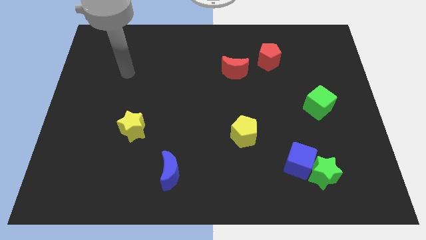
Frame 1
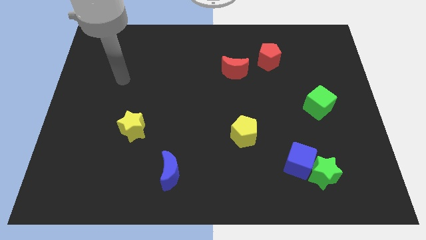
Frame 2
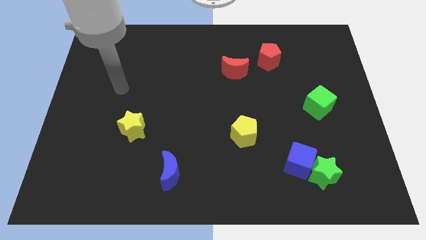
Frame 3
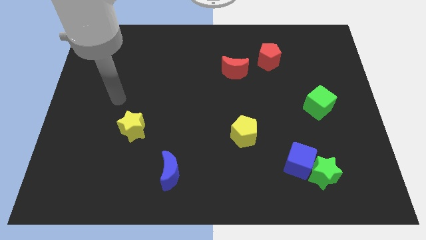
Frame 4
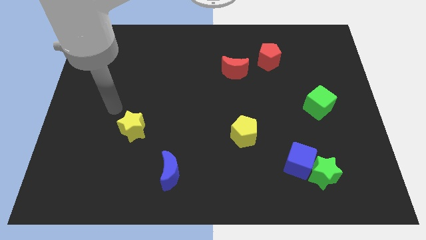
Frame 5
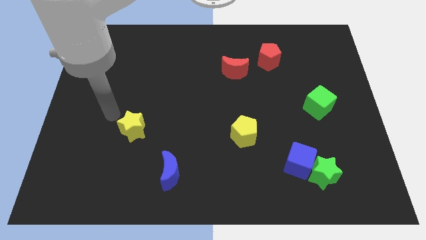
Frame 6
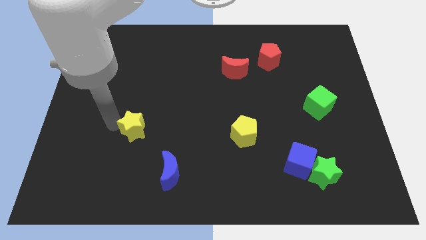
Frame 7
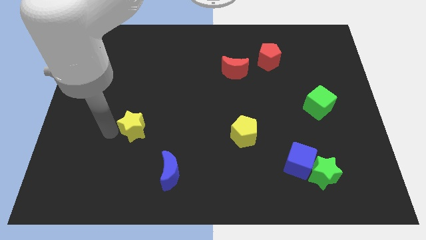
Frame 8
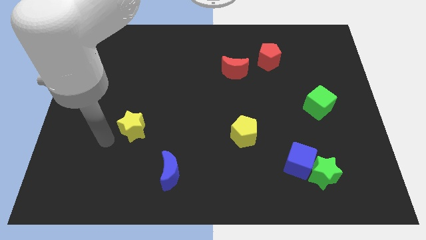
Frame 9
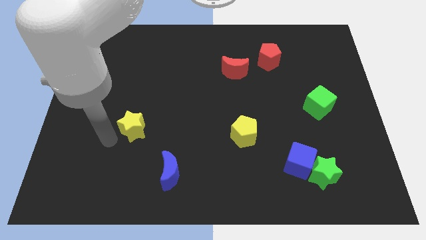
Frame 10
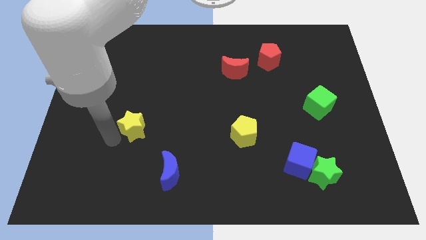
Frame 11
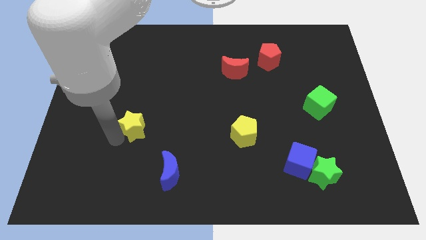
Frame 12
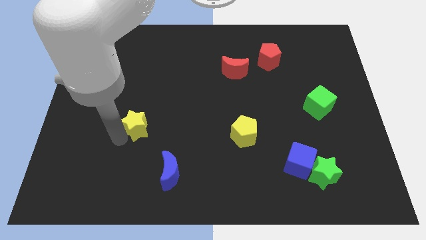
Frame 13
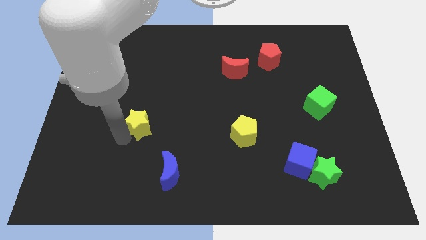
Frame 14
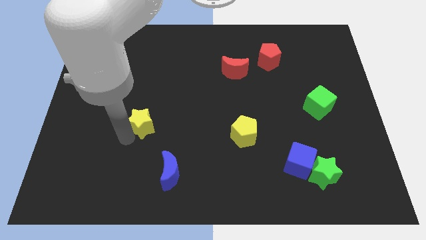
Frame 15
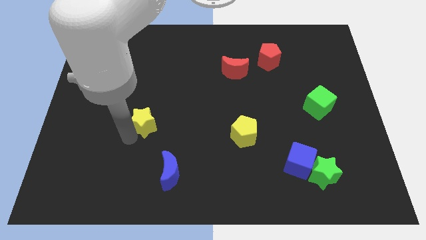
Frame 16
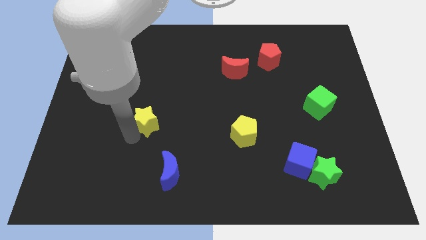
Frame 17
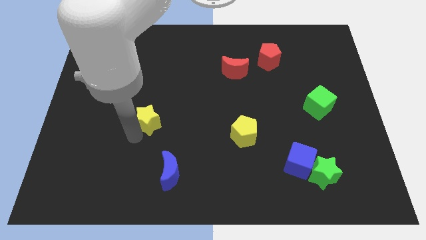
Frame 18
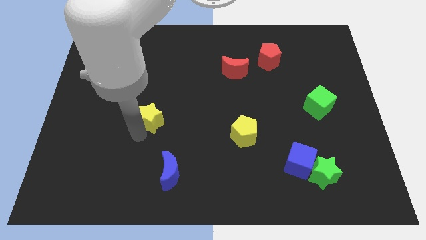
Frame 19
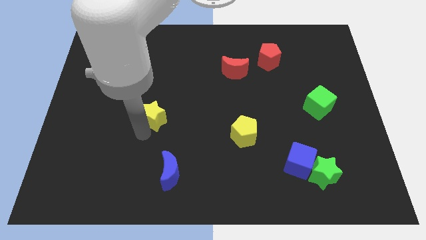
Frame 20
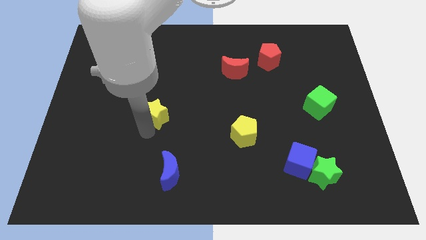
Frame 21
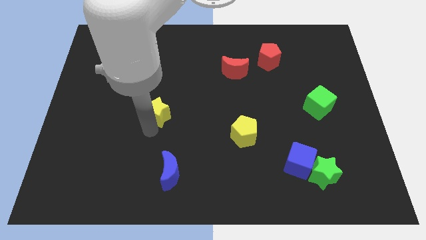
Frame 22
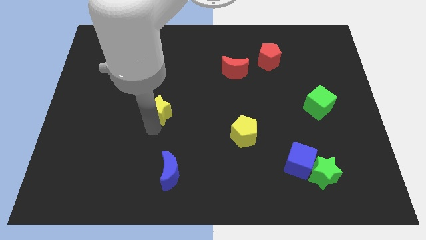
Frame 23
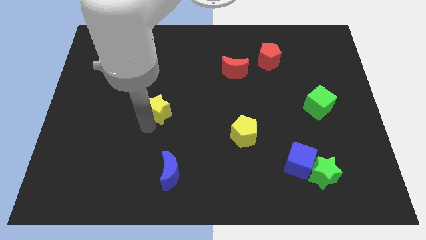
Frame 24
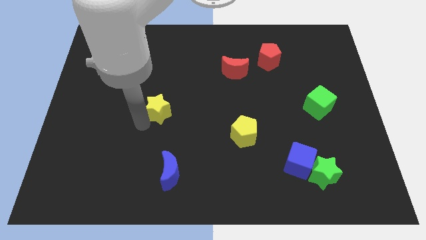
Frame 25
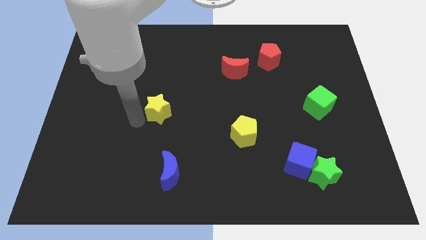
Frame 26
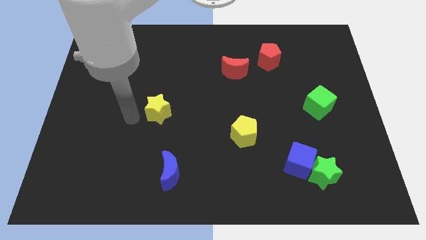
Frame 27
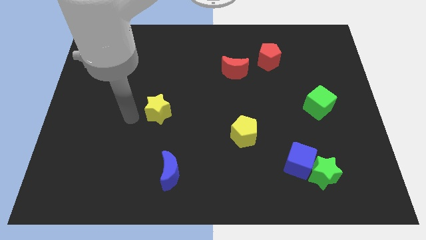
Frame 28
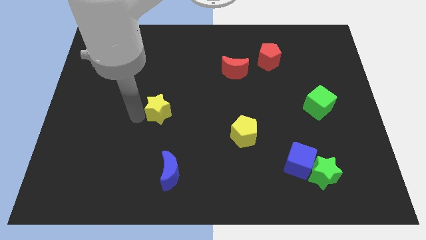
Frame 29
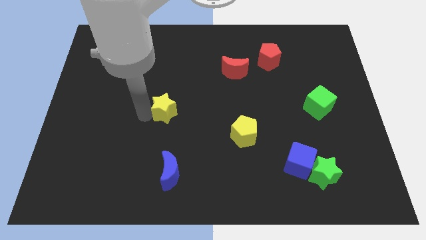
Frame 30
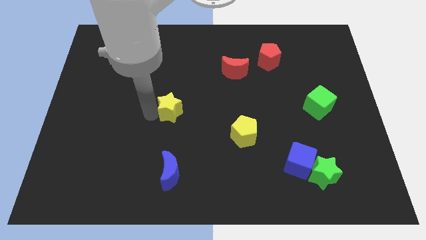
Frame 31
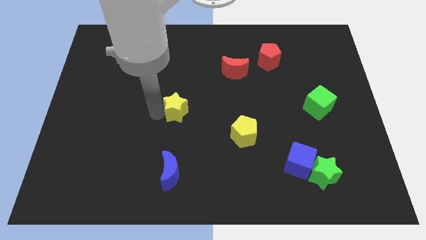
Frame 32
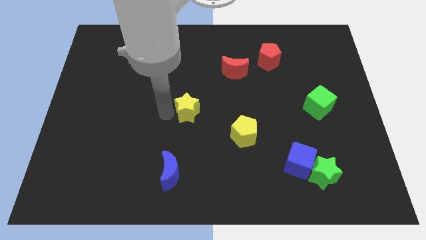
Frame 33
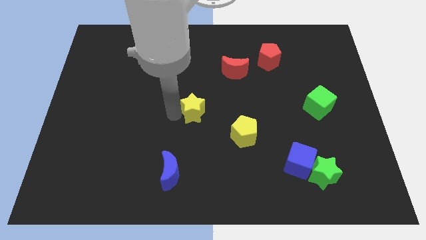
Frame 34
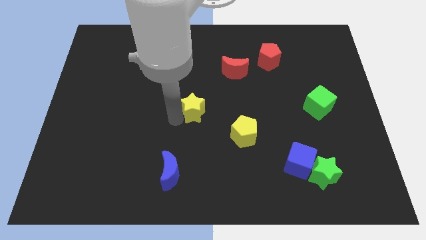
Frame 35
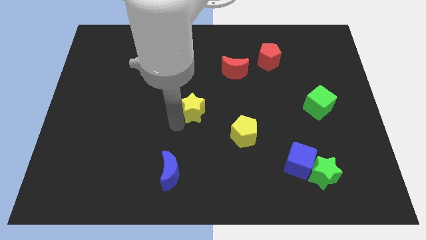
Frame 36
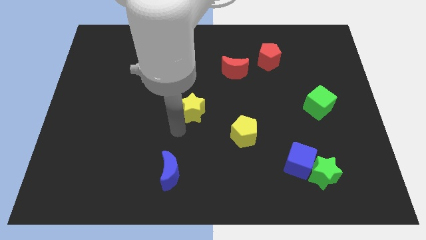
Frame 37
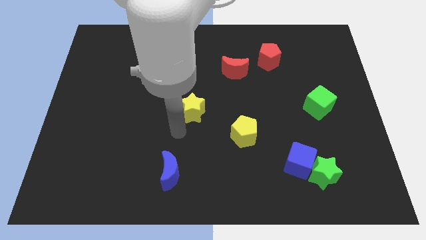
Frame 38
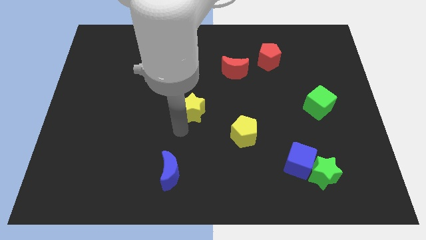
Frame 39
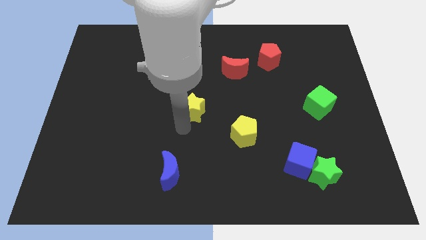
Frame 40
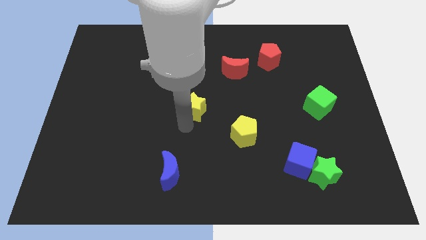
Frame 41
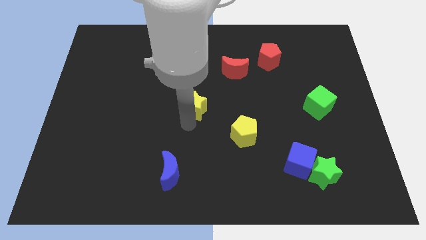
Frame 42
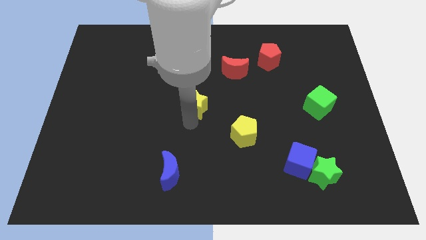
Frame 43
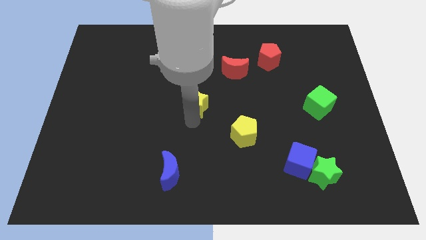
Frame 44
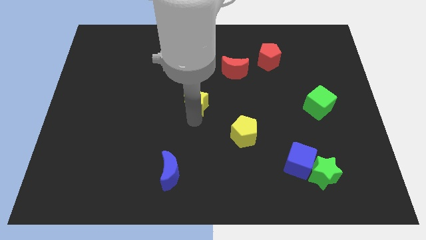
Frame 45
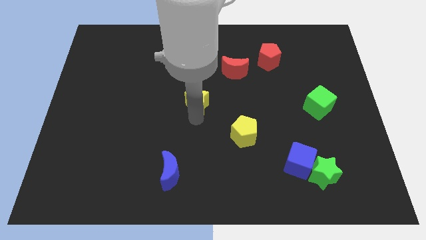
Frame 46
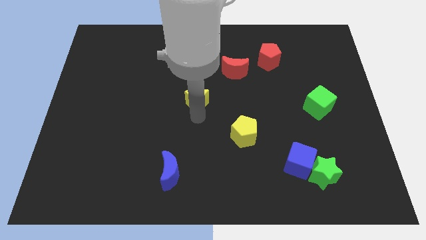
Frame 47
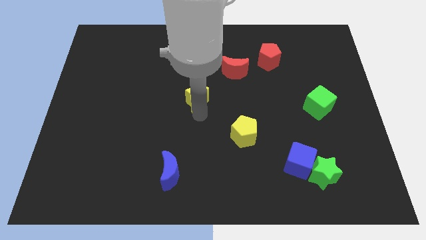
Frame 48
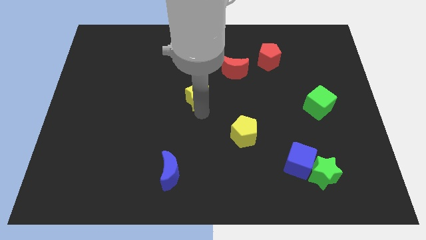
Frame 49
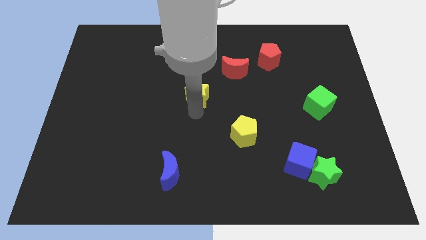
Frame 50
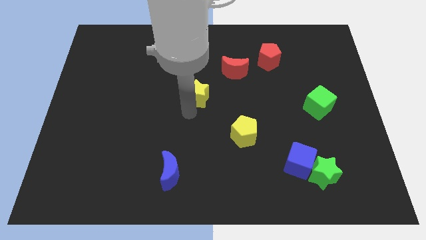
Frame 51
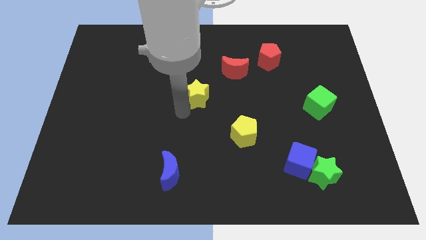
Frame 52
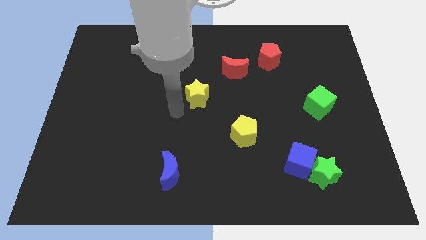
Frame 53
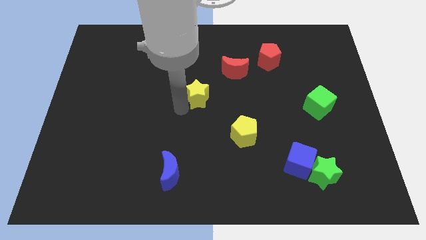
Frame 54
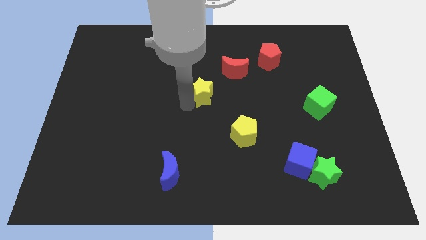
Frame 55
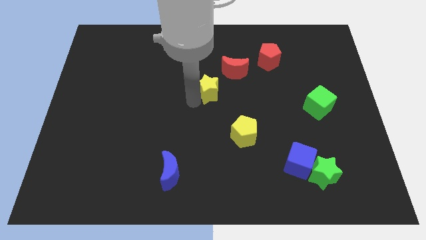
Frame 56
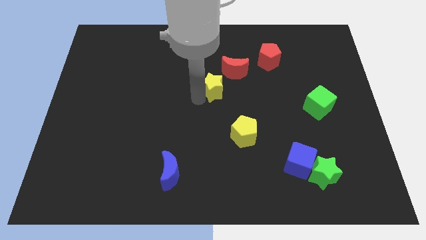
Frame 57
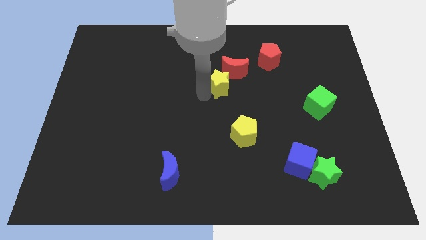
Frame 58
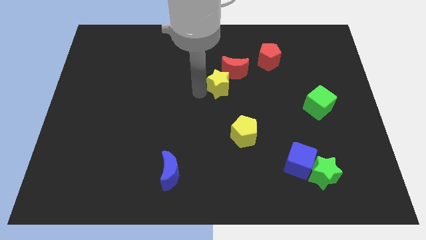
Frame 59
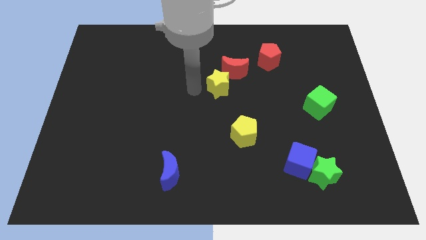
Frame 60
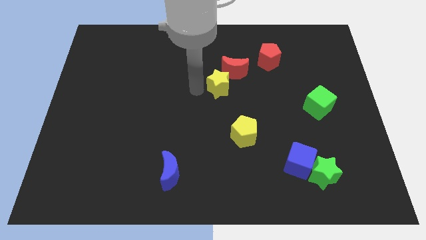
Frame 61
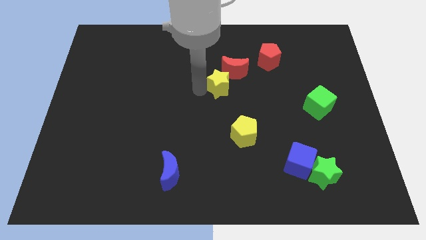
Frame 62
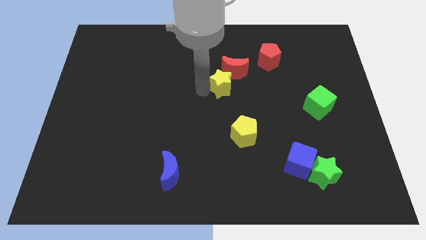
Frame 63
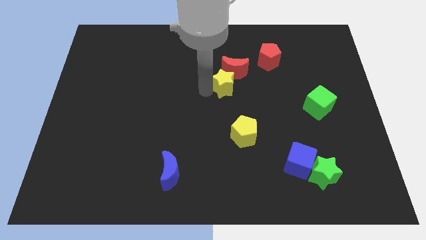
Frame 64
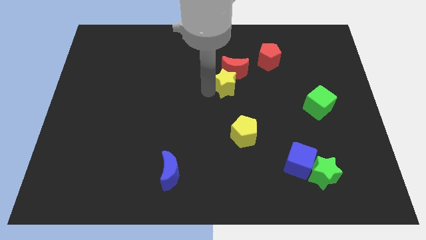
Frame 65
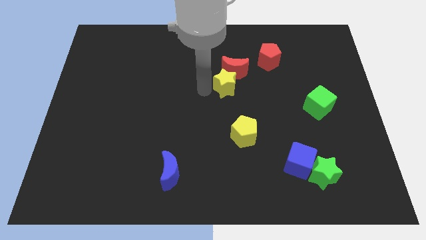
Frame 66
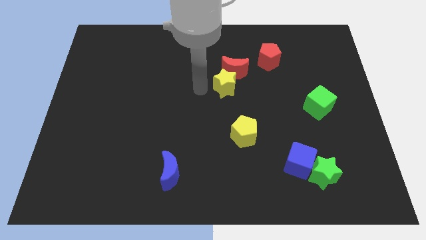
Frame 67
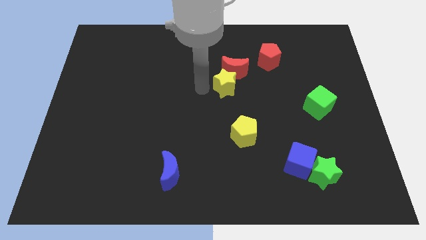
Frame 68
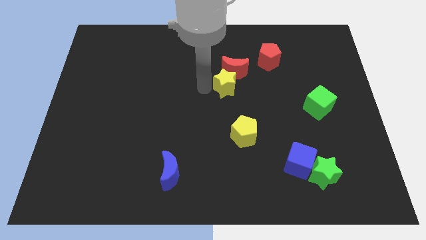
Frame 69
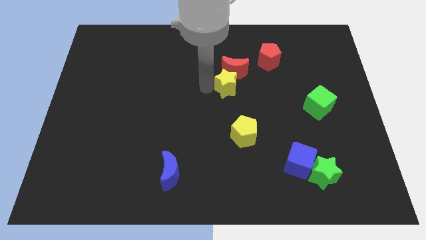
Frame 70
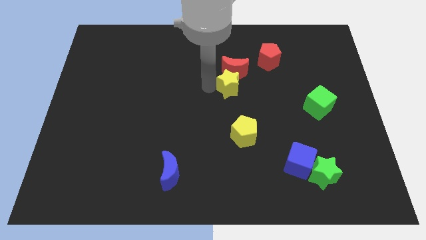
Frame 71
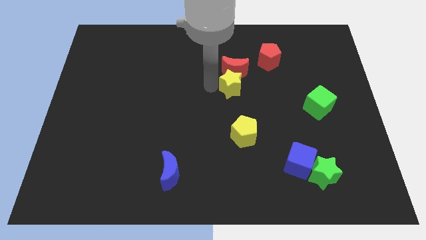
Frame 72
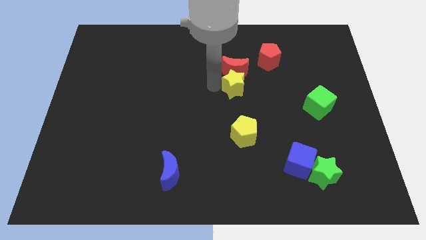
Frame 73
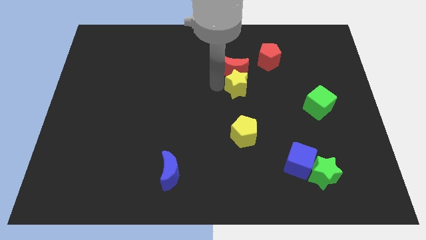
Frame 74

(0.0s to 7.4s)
move the yellow star to the bottom left side of the red pentagon

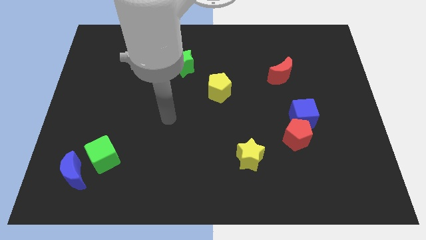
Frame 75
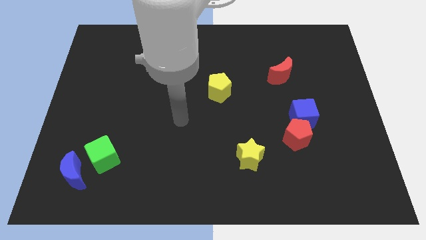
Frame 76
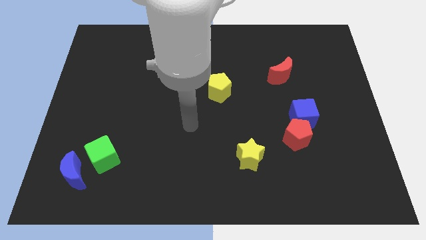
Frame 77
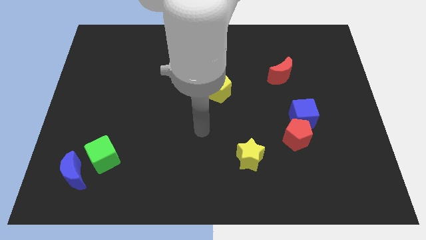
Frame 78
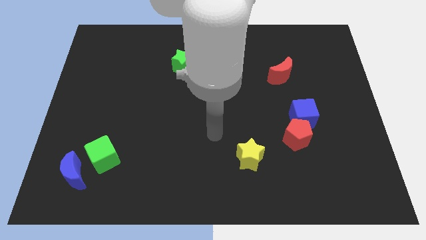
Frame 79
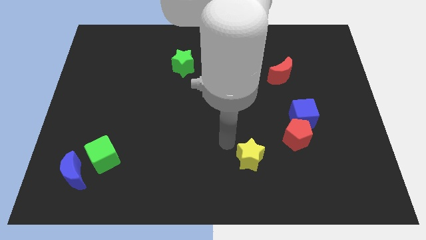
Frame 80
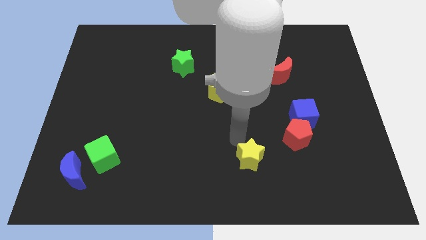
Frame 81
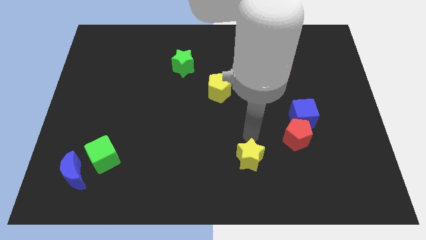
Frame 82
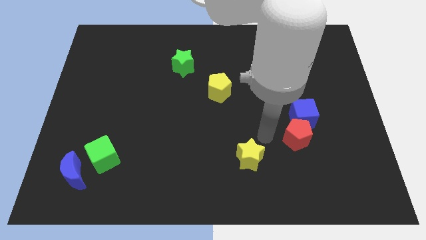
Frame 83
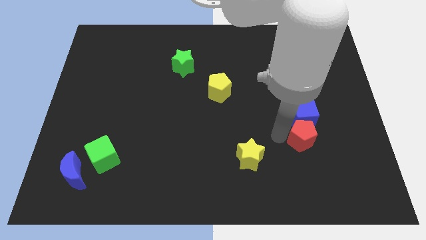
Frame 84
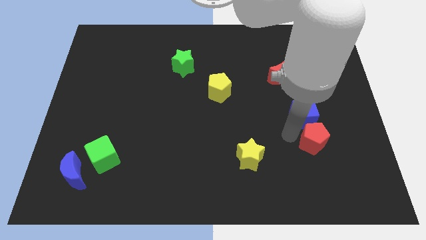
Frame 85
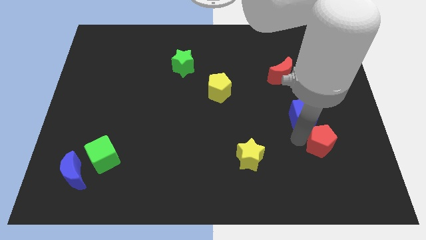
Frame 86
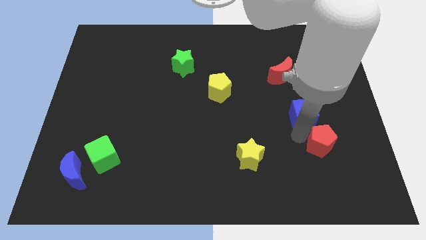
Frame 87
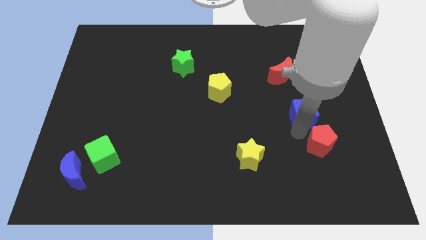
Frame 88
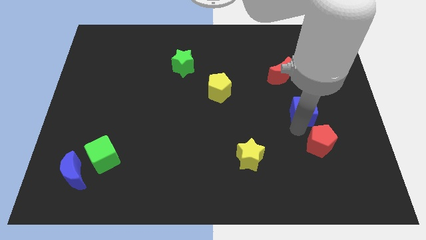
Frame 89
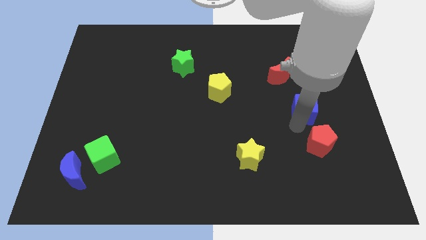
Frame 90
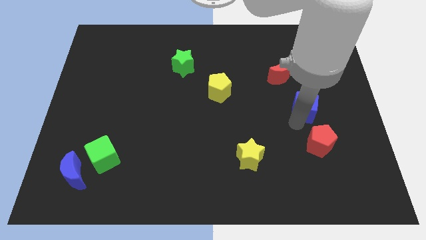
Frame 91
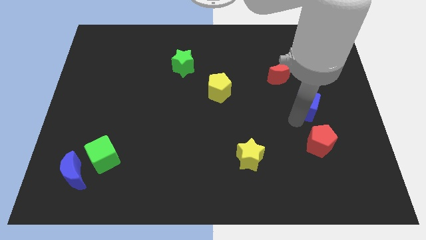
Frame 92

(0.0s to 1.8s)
push the blue cube diagonally down and to the right of the red moon
